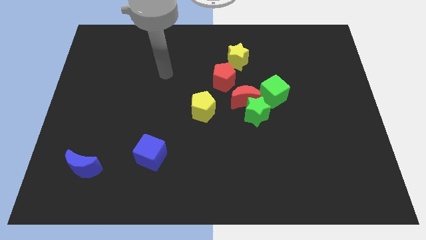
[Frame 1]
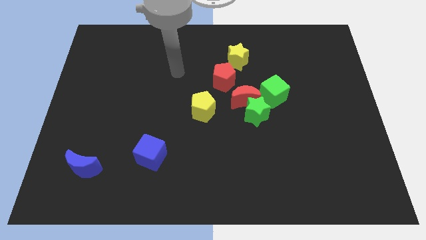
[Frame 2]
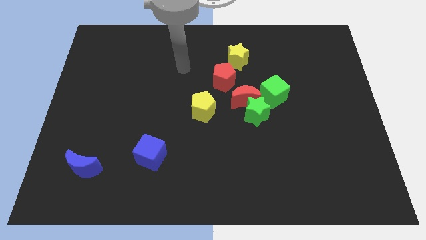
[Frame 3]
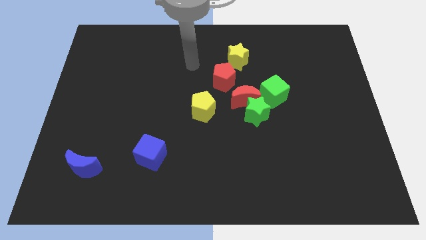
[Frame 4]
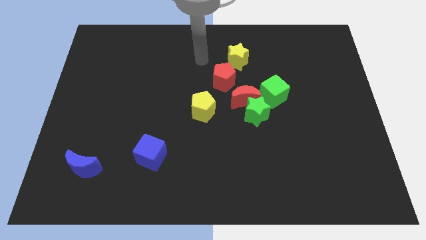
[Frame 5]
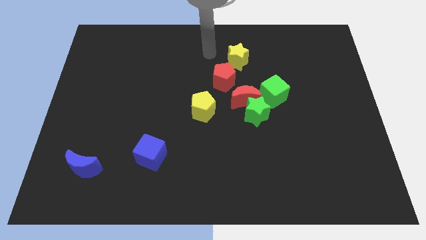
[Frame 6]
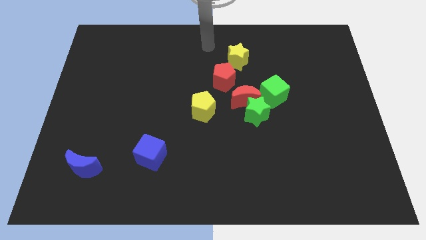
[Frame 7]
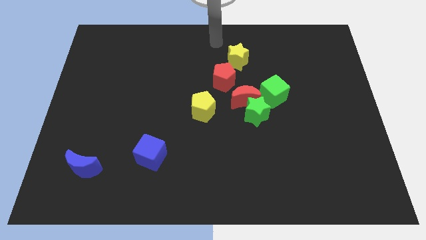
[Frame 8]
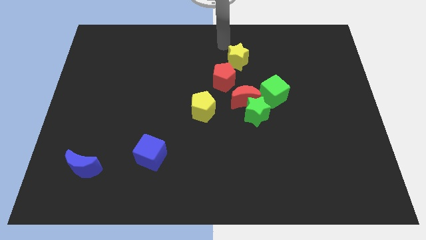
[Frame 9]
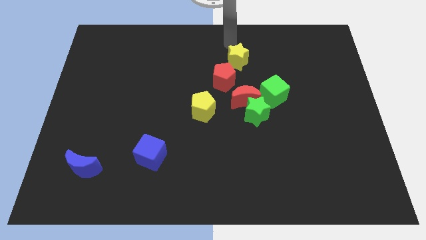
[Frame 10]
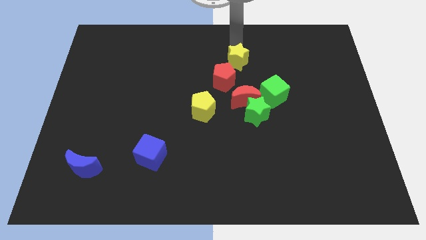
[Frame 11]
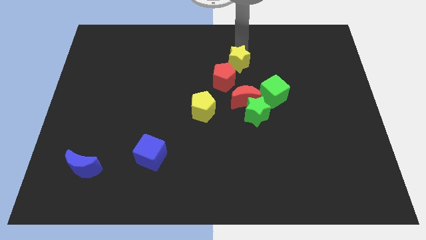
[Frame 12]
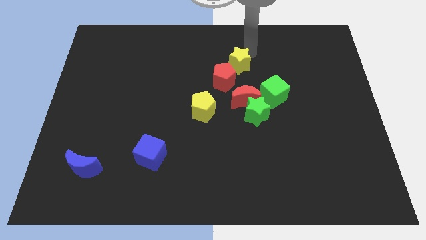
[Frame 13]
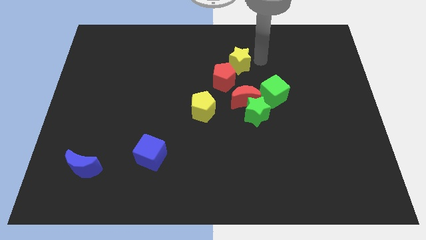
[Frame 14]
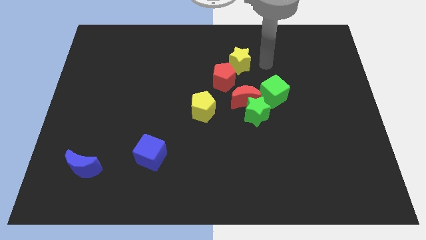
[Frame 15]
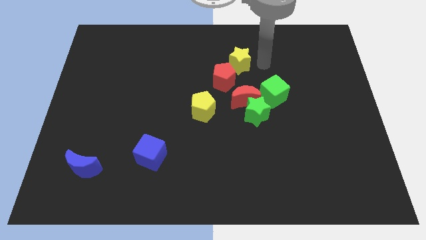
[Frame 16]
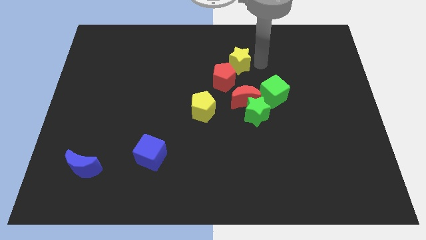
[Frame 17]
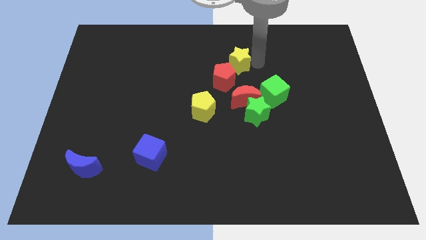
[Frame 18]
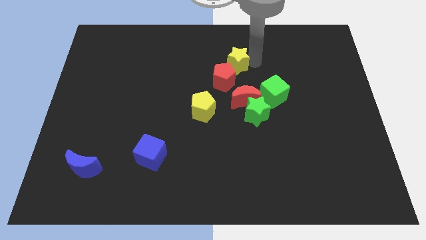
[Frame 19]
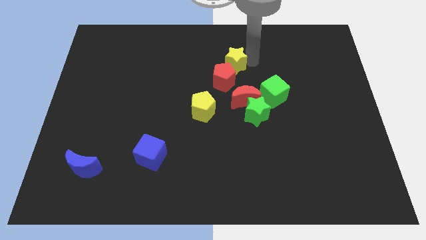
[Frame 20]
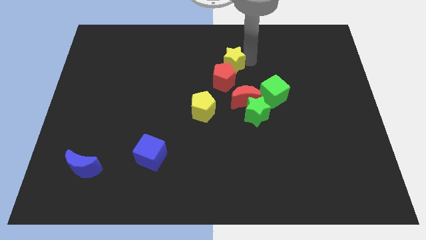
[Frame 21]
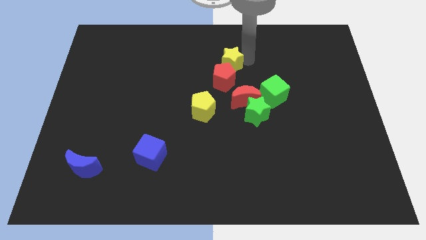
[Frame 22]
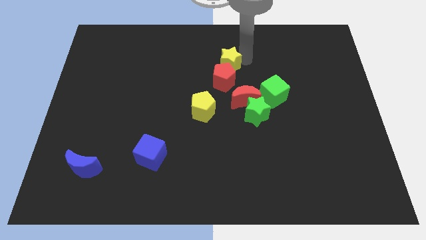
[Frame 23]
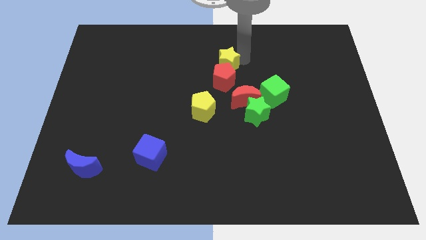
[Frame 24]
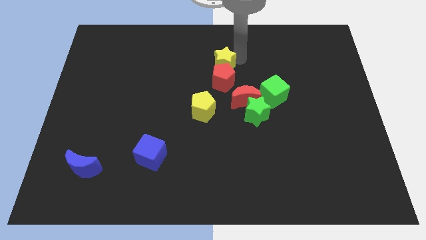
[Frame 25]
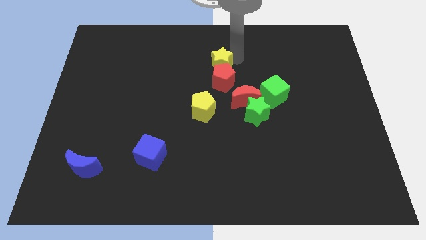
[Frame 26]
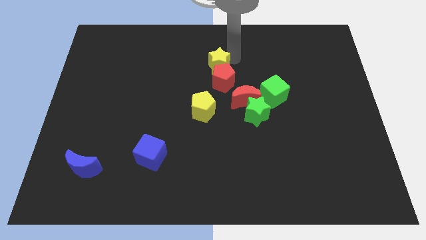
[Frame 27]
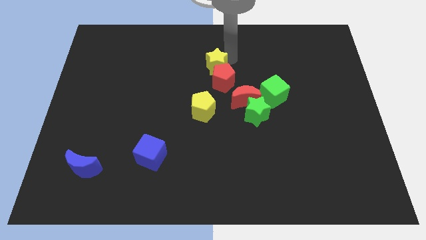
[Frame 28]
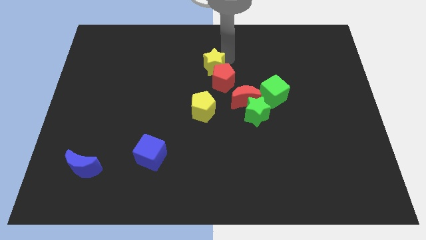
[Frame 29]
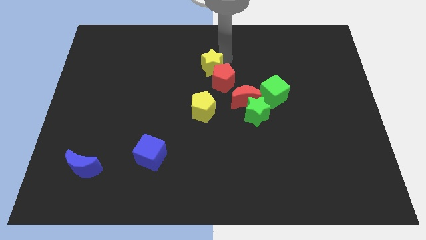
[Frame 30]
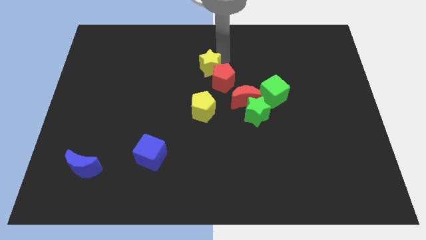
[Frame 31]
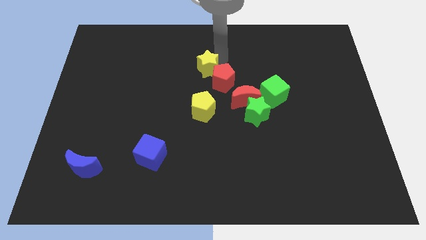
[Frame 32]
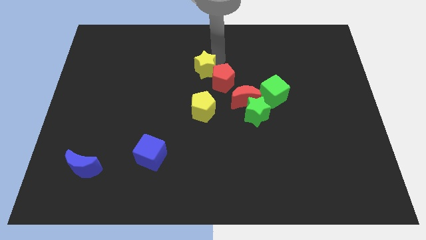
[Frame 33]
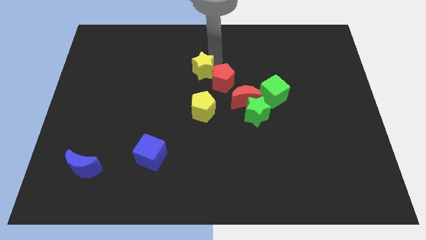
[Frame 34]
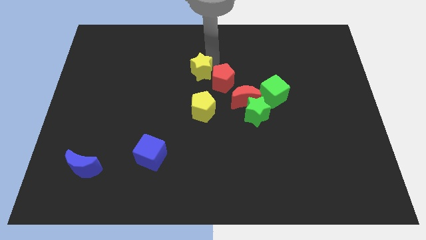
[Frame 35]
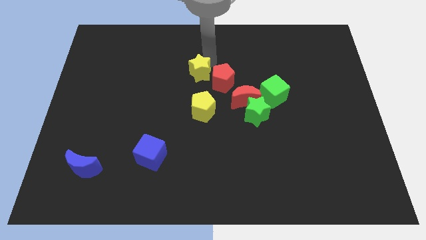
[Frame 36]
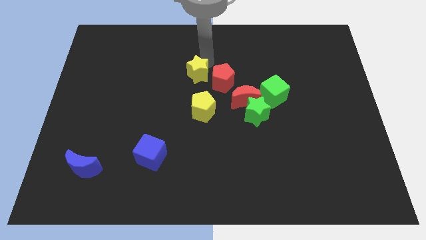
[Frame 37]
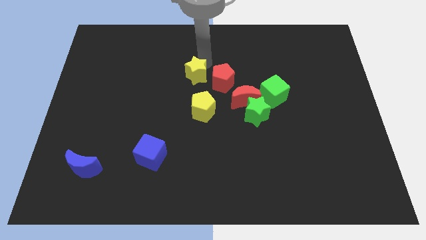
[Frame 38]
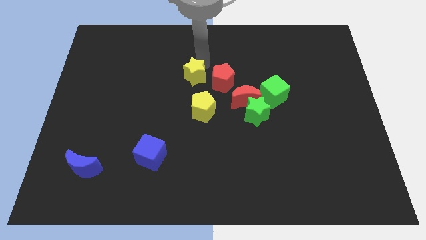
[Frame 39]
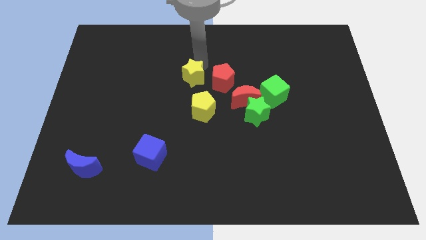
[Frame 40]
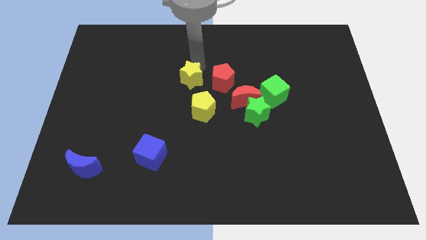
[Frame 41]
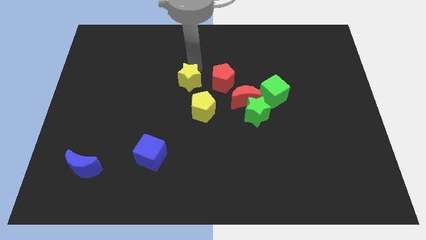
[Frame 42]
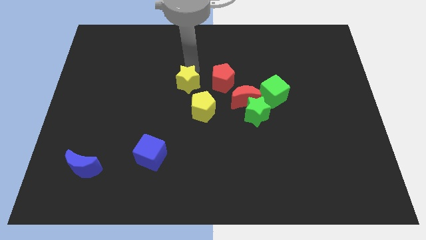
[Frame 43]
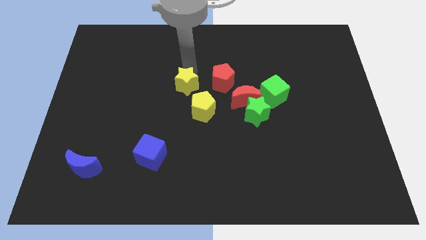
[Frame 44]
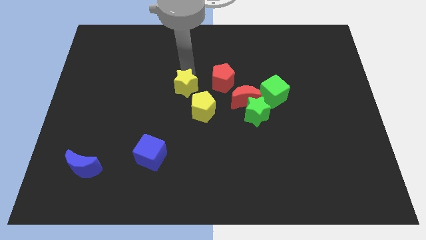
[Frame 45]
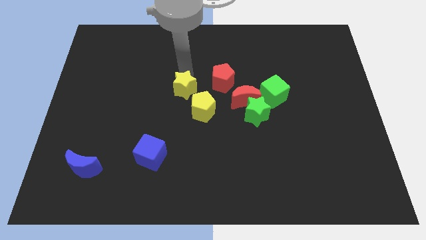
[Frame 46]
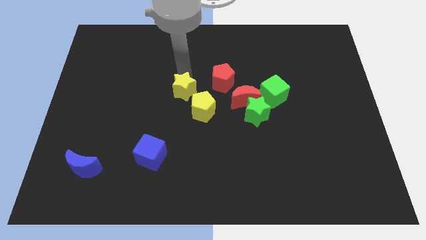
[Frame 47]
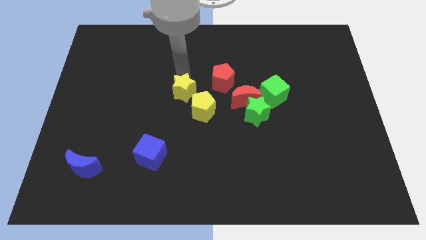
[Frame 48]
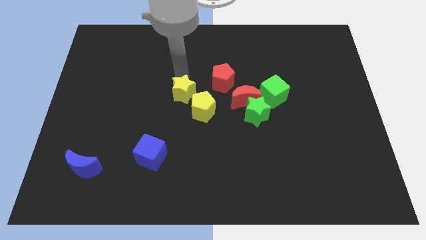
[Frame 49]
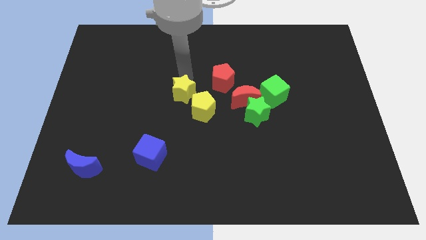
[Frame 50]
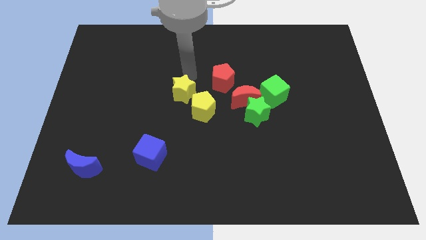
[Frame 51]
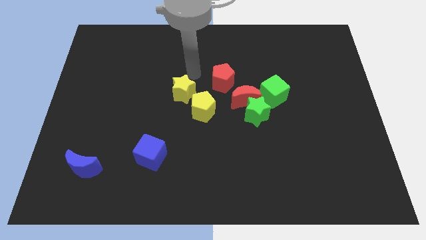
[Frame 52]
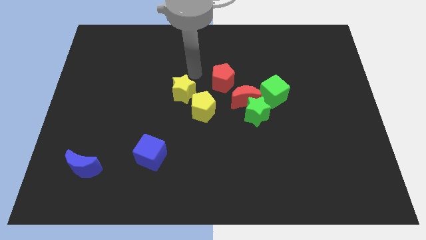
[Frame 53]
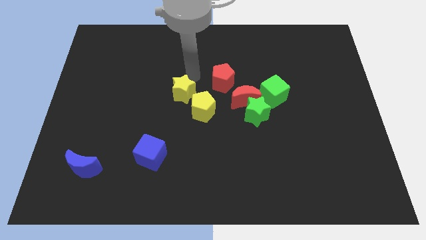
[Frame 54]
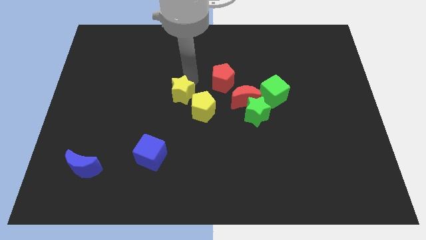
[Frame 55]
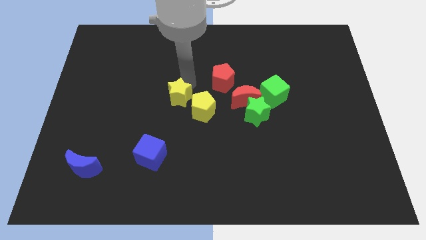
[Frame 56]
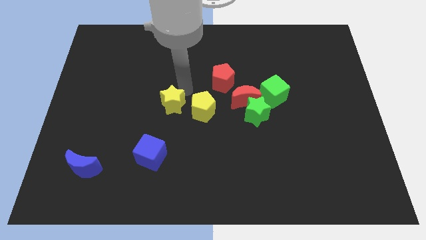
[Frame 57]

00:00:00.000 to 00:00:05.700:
put the yellow star above the blue cube

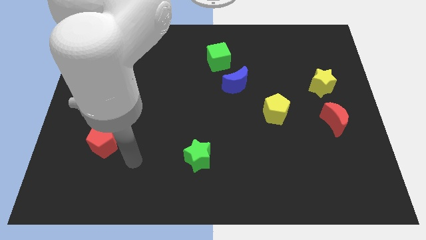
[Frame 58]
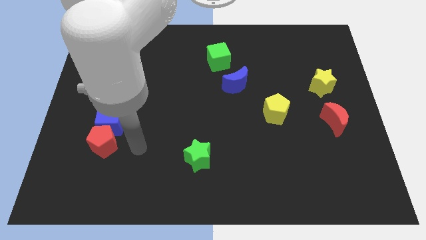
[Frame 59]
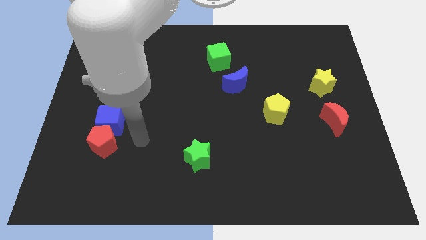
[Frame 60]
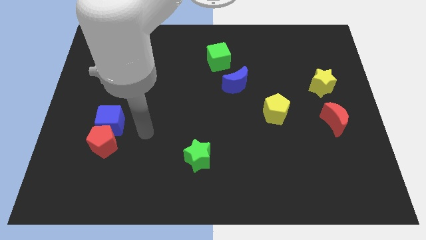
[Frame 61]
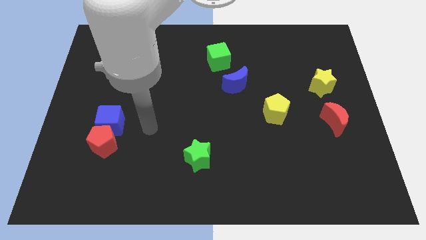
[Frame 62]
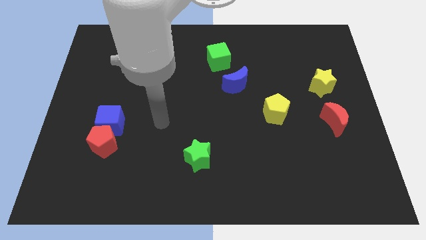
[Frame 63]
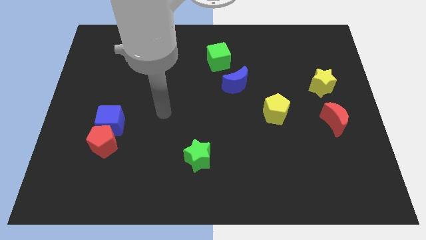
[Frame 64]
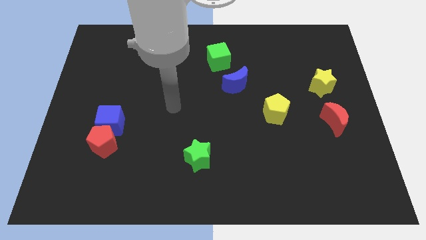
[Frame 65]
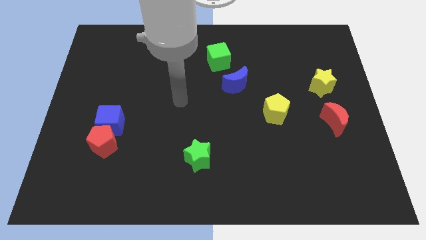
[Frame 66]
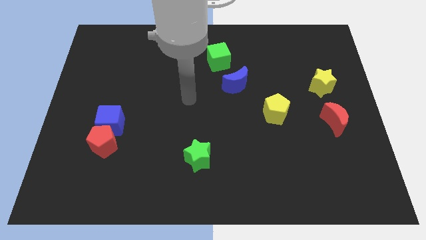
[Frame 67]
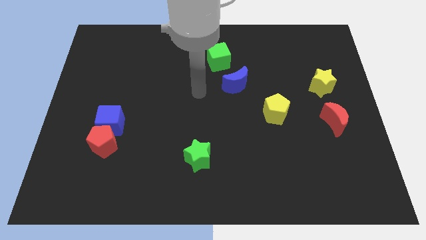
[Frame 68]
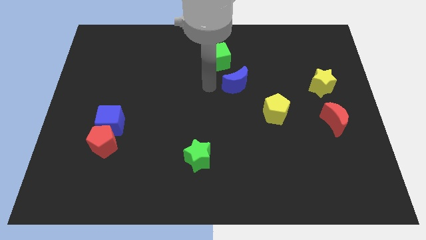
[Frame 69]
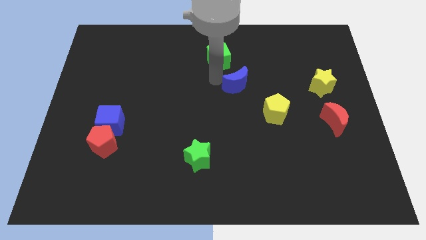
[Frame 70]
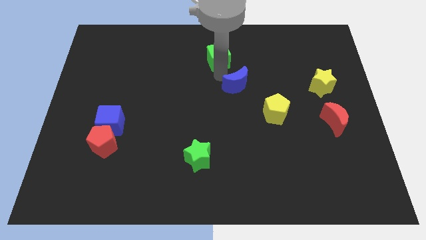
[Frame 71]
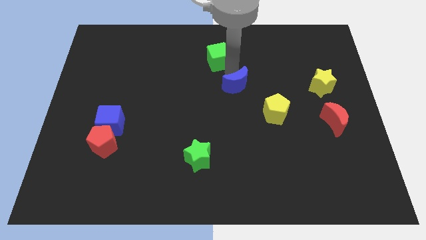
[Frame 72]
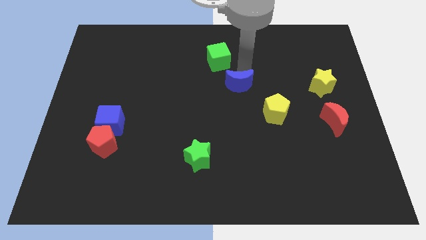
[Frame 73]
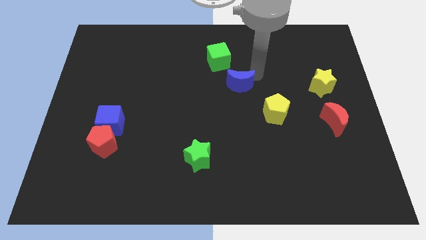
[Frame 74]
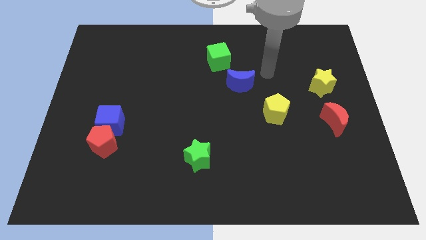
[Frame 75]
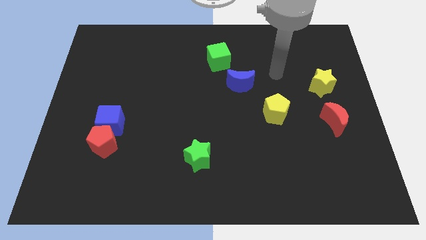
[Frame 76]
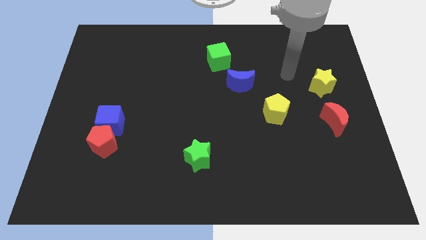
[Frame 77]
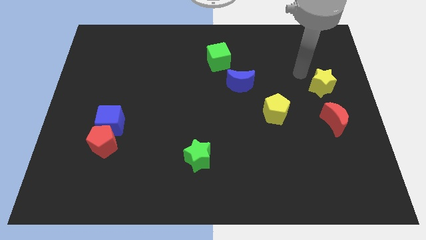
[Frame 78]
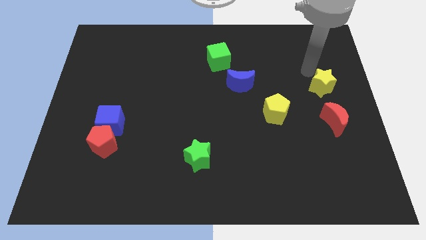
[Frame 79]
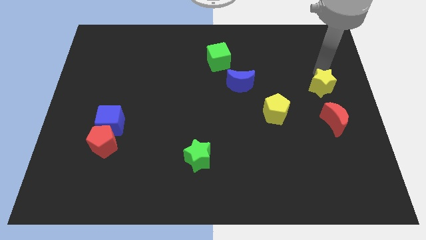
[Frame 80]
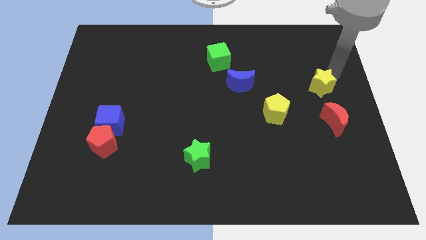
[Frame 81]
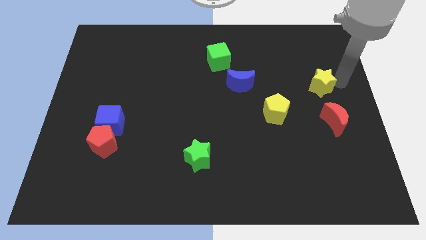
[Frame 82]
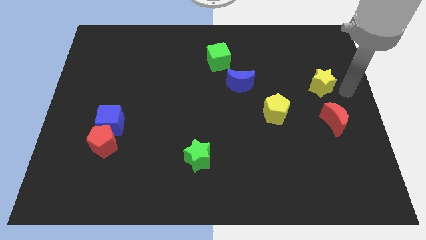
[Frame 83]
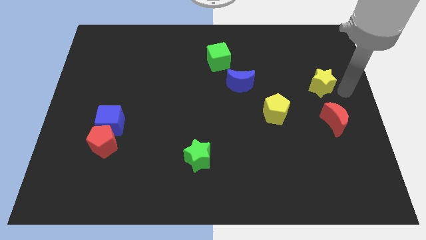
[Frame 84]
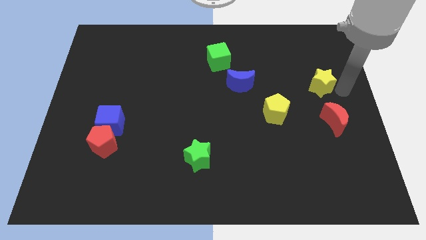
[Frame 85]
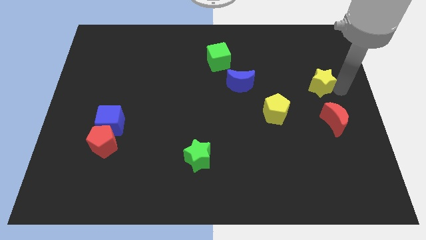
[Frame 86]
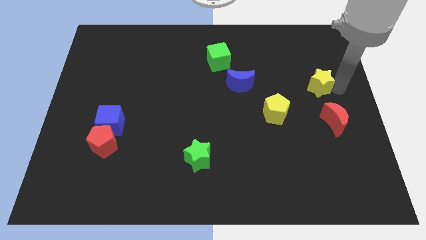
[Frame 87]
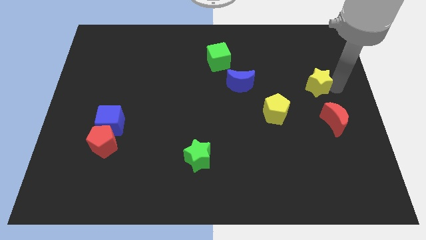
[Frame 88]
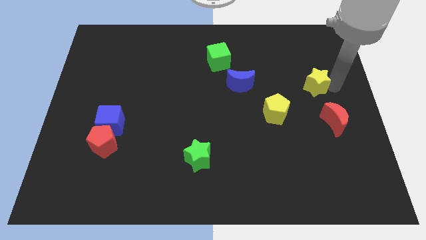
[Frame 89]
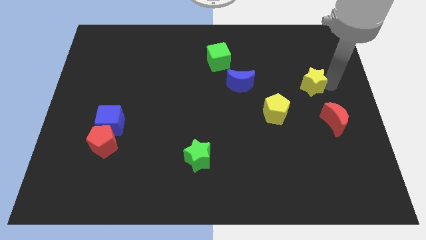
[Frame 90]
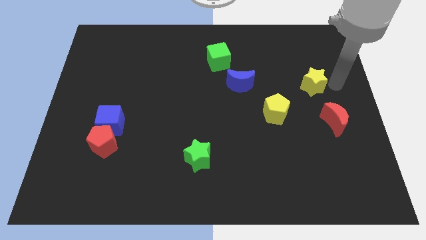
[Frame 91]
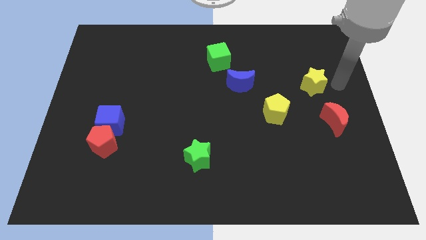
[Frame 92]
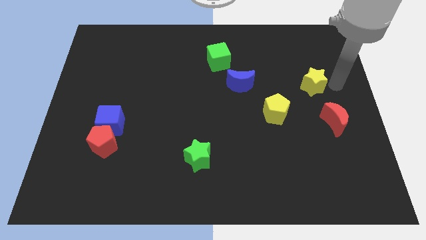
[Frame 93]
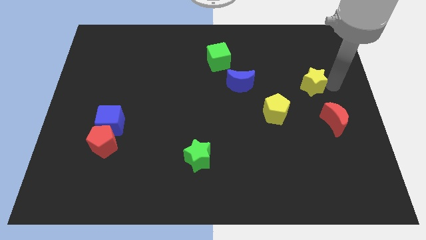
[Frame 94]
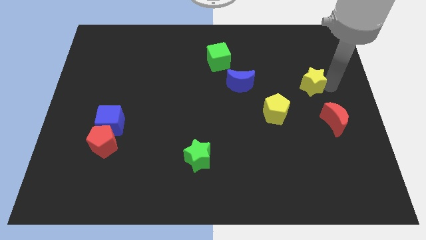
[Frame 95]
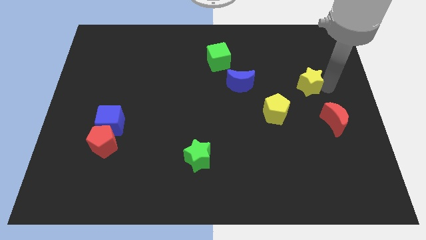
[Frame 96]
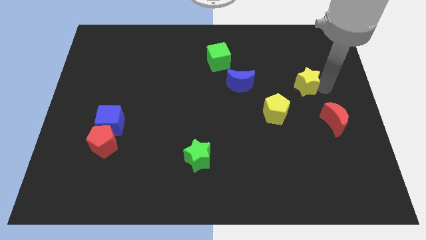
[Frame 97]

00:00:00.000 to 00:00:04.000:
slide the yellow star right of the blue moon
